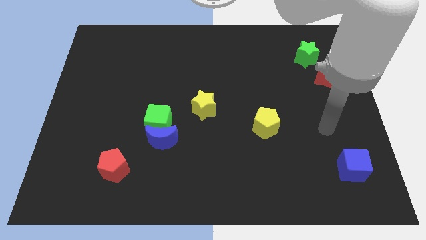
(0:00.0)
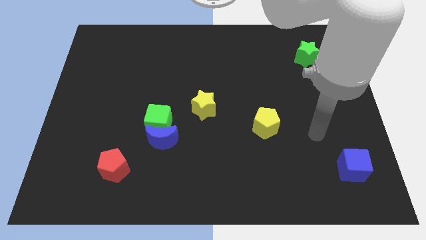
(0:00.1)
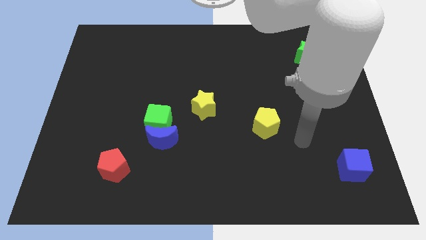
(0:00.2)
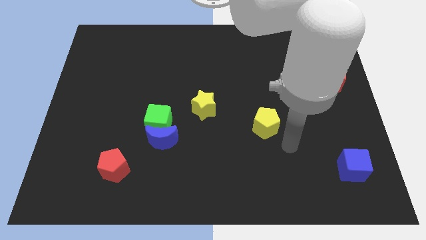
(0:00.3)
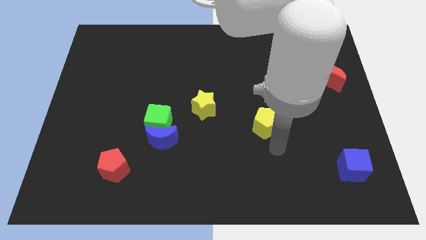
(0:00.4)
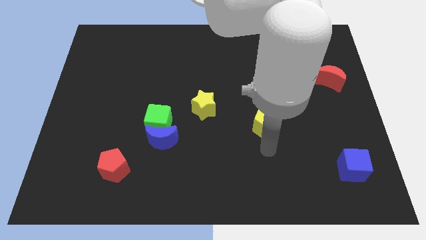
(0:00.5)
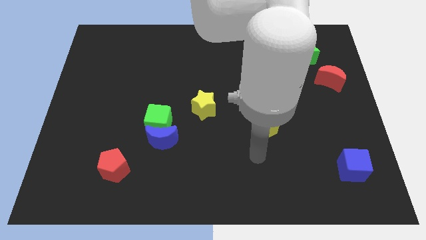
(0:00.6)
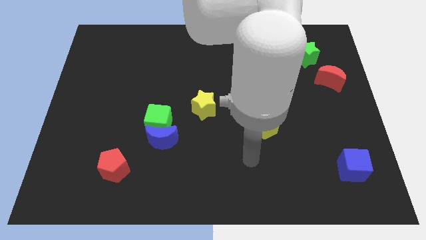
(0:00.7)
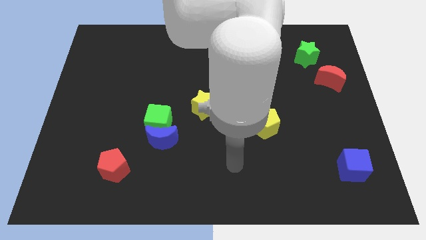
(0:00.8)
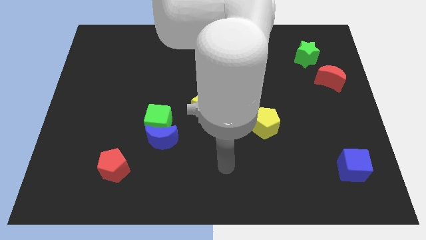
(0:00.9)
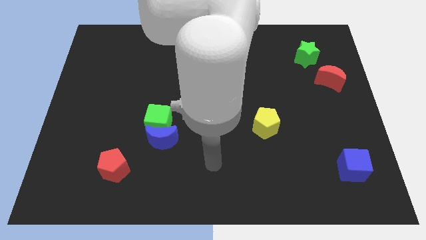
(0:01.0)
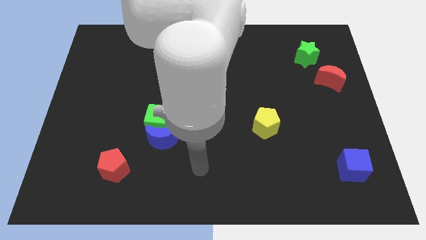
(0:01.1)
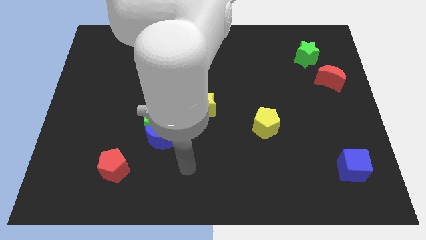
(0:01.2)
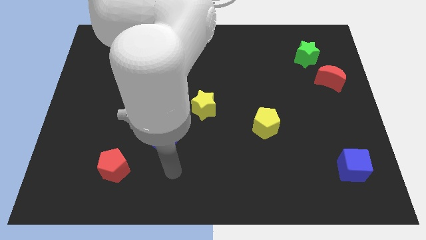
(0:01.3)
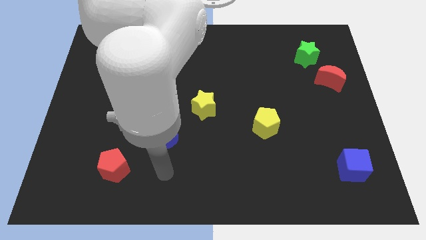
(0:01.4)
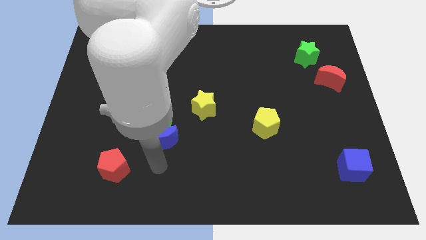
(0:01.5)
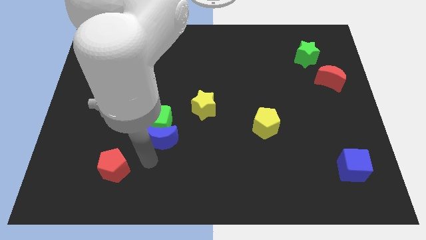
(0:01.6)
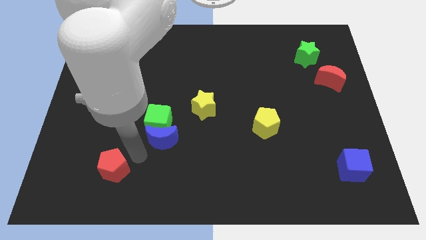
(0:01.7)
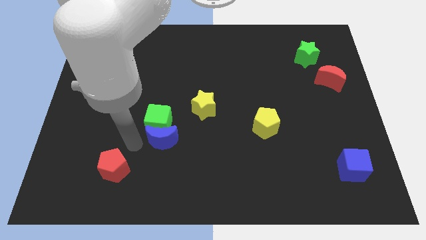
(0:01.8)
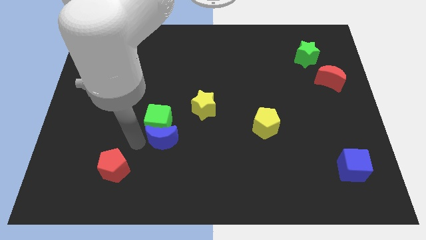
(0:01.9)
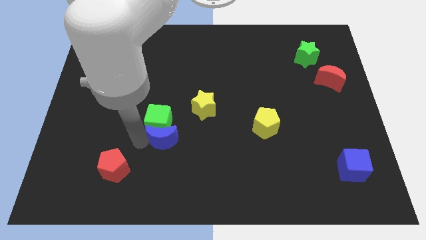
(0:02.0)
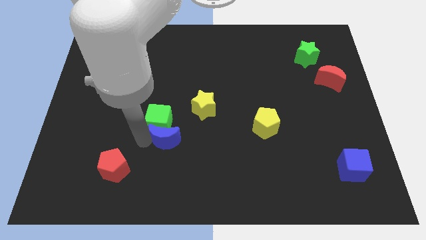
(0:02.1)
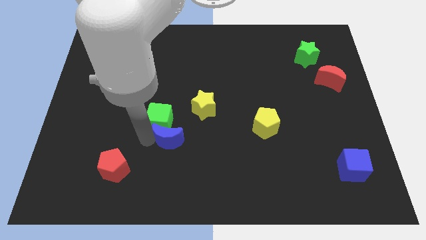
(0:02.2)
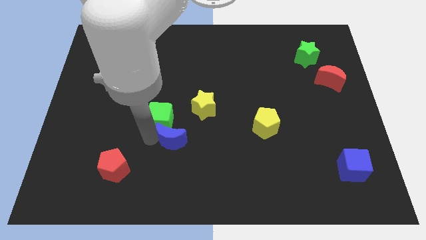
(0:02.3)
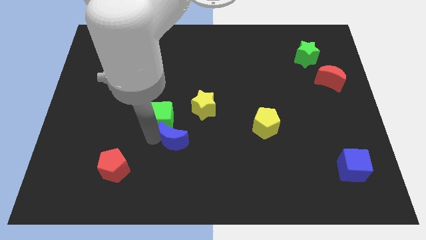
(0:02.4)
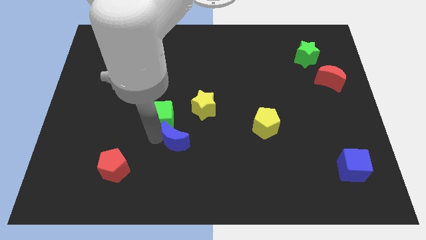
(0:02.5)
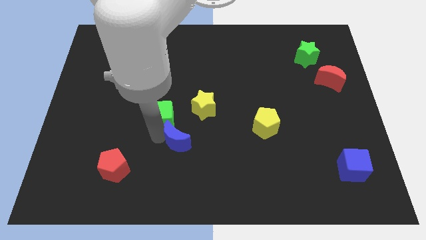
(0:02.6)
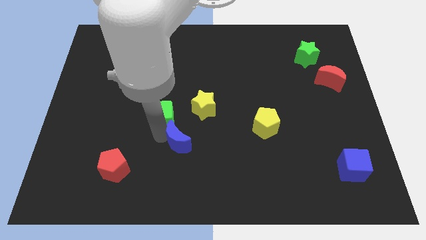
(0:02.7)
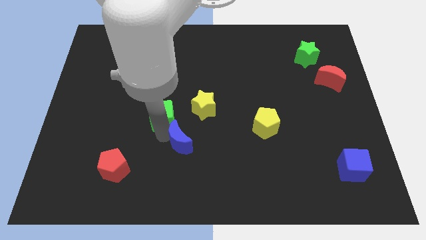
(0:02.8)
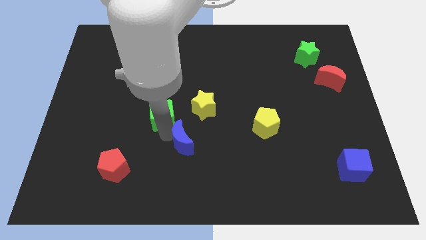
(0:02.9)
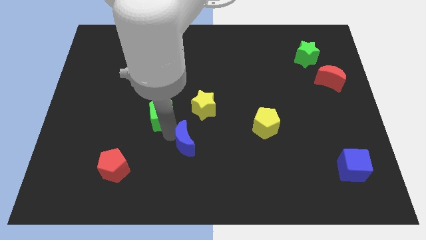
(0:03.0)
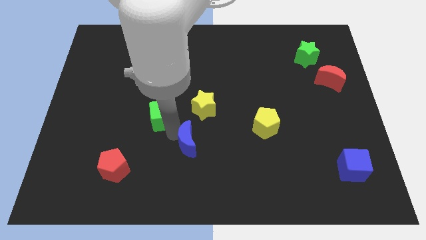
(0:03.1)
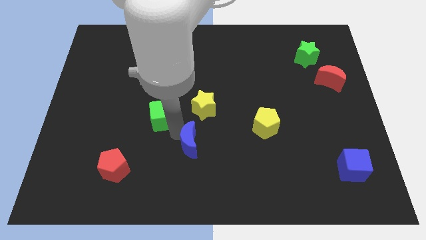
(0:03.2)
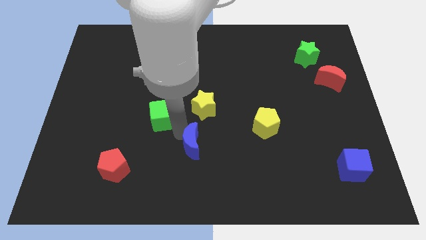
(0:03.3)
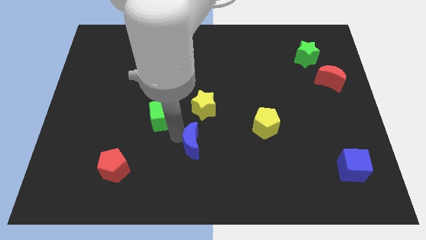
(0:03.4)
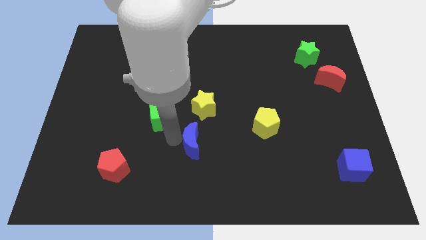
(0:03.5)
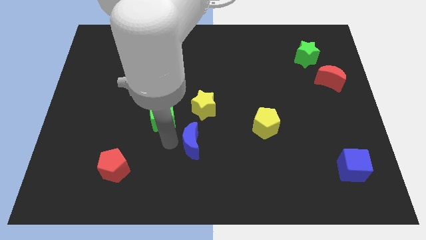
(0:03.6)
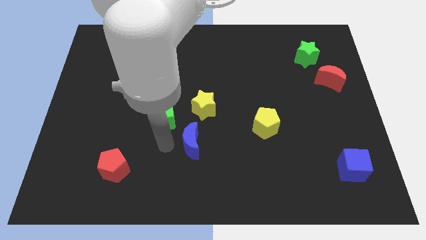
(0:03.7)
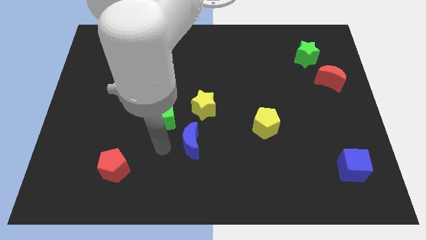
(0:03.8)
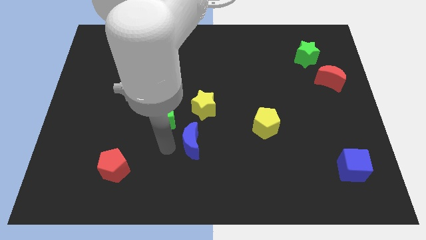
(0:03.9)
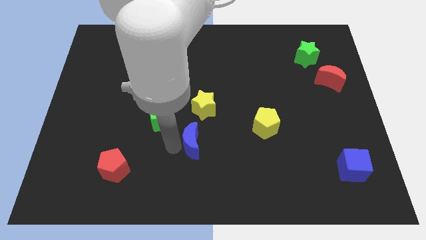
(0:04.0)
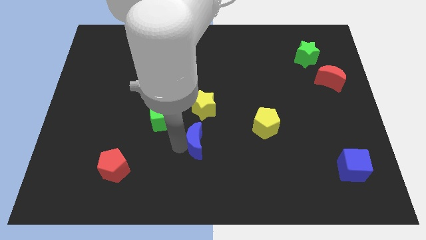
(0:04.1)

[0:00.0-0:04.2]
push the blue moon to the right slightly

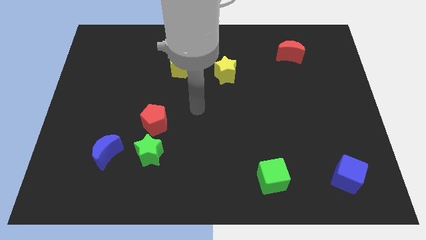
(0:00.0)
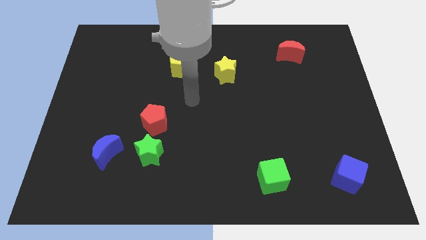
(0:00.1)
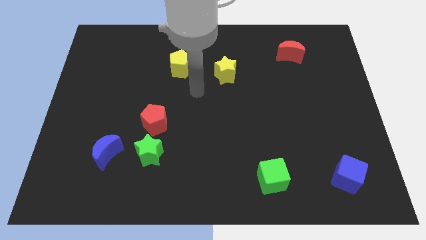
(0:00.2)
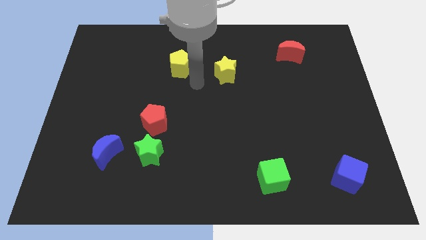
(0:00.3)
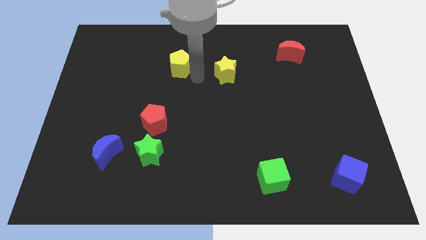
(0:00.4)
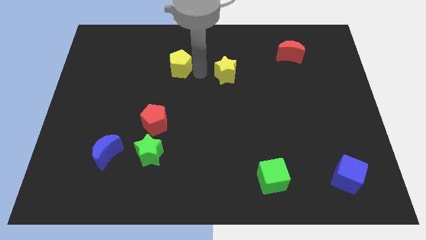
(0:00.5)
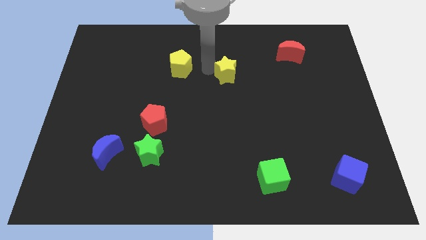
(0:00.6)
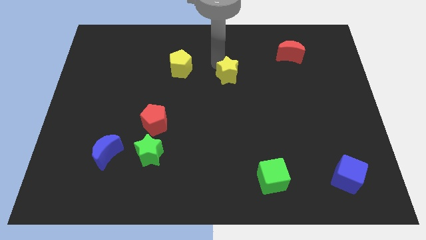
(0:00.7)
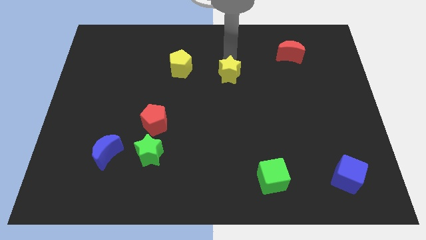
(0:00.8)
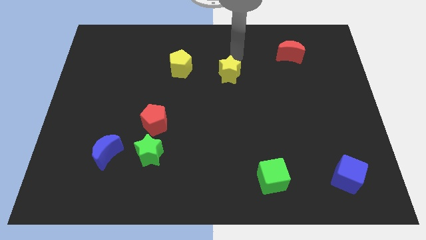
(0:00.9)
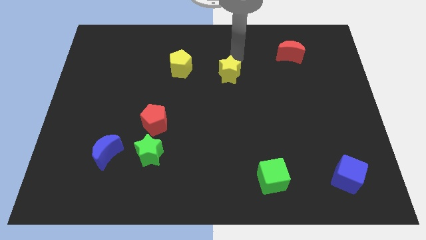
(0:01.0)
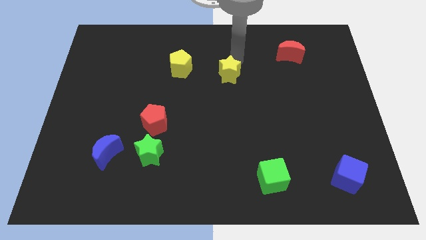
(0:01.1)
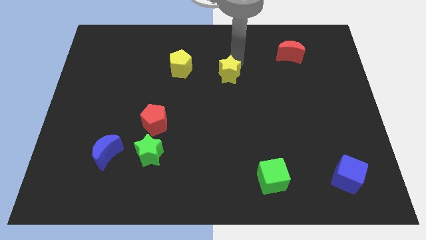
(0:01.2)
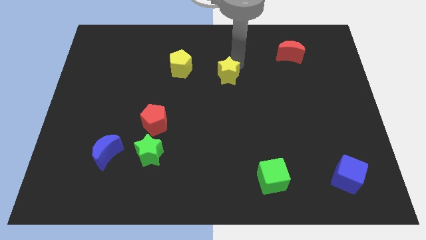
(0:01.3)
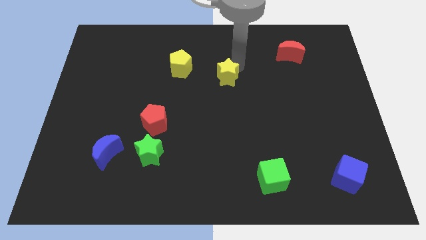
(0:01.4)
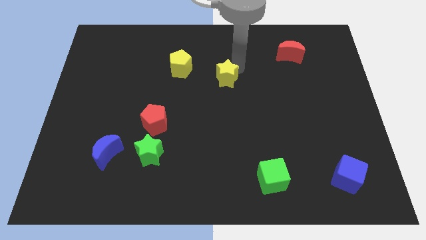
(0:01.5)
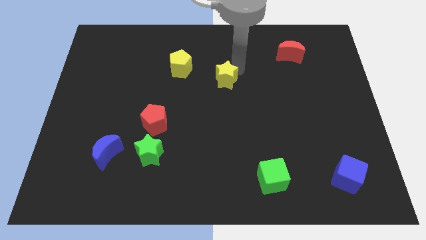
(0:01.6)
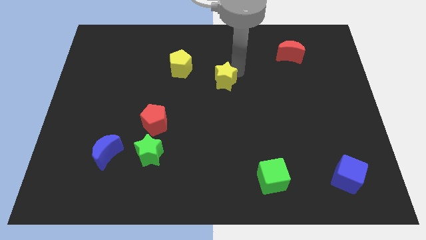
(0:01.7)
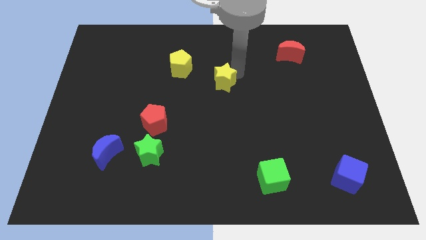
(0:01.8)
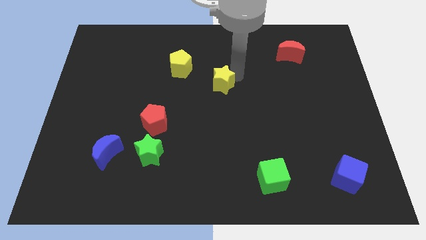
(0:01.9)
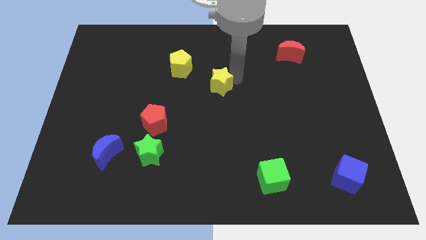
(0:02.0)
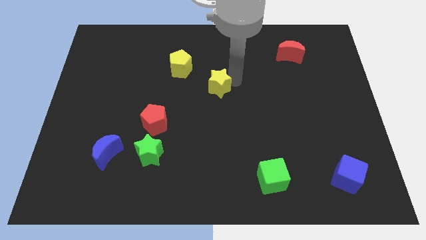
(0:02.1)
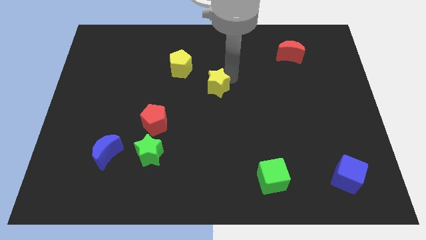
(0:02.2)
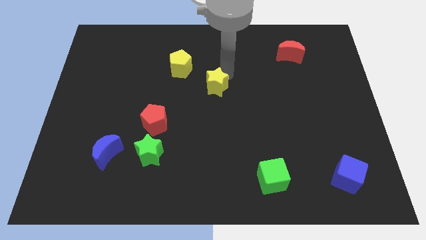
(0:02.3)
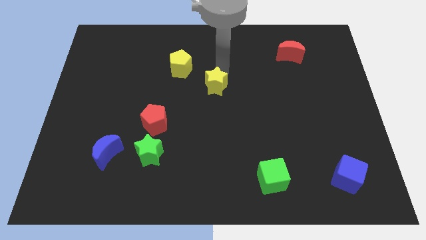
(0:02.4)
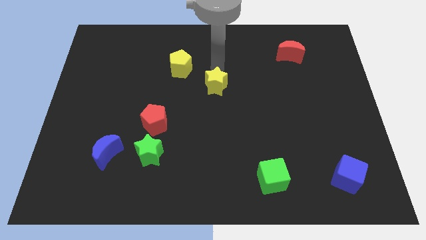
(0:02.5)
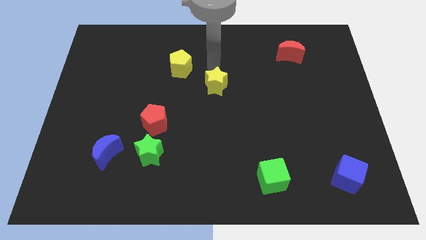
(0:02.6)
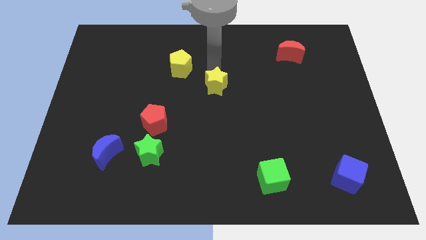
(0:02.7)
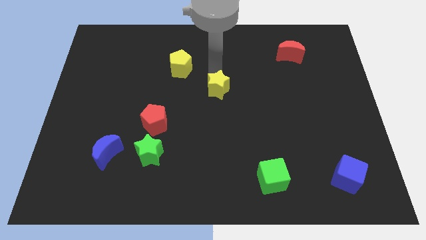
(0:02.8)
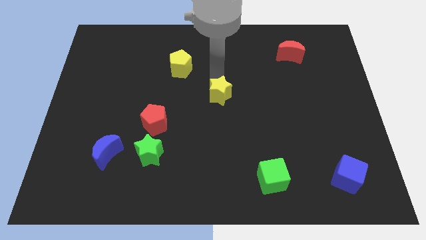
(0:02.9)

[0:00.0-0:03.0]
slightly move the yellow star down

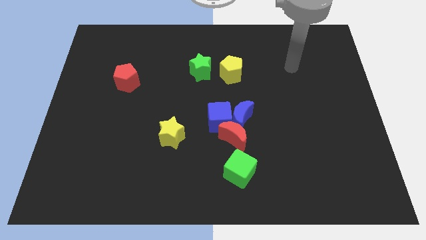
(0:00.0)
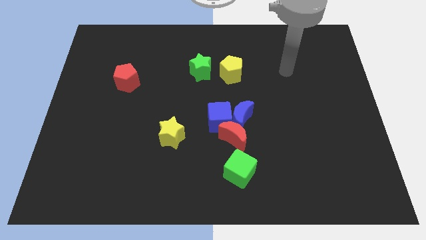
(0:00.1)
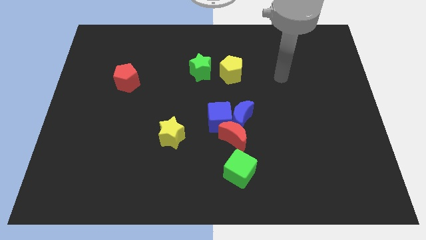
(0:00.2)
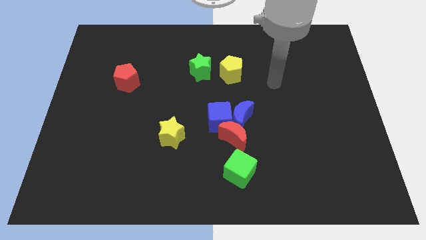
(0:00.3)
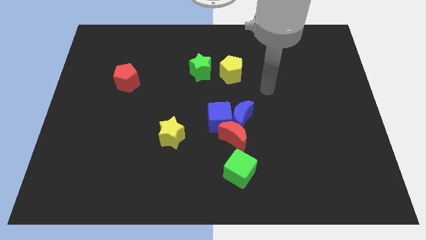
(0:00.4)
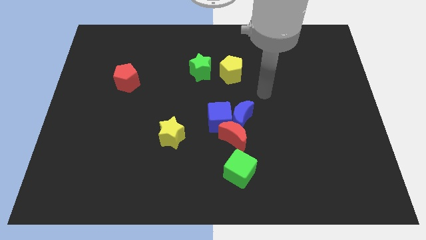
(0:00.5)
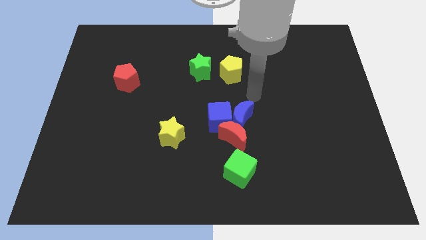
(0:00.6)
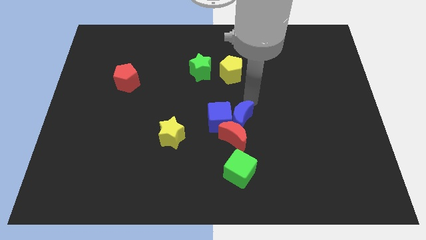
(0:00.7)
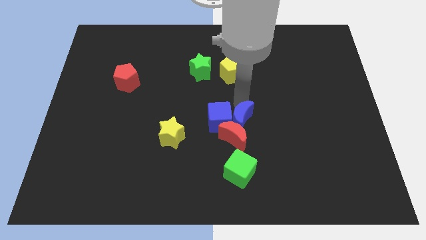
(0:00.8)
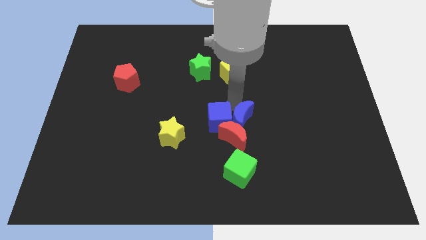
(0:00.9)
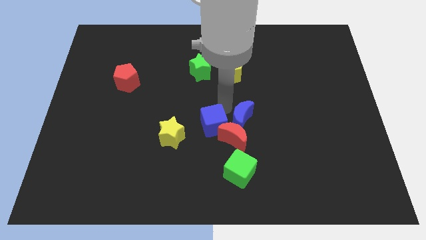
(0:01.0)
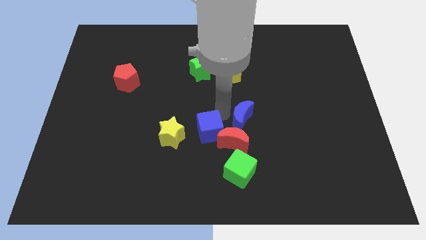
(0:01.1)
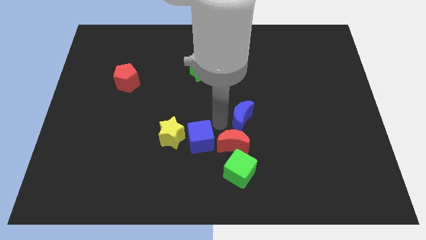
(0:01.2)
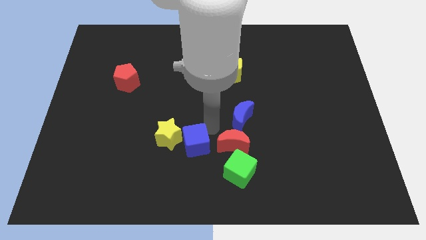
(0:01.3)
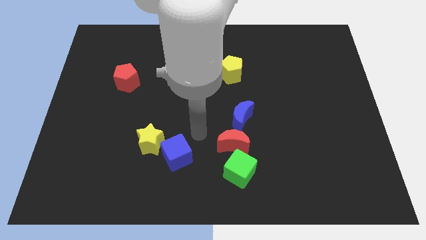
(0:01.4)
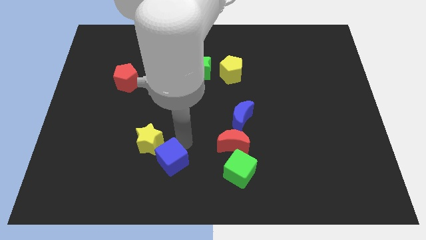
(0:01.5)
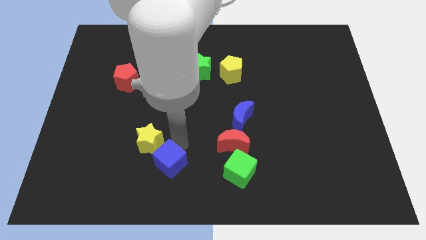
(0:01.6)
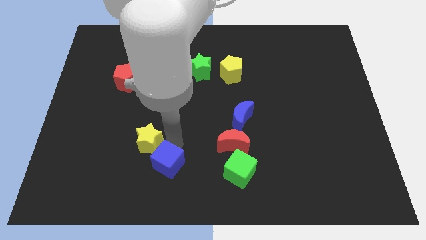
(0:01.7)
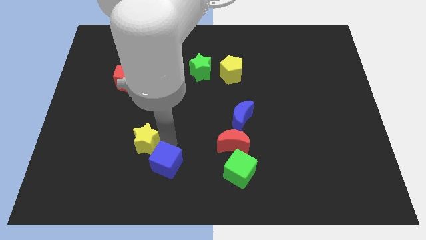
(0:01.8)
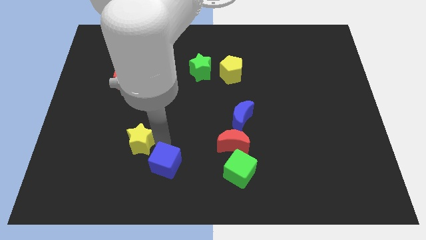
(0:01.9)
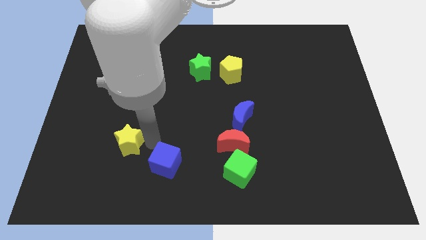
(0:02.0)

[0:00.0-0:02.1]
push the yellow star a little bit to the left
